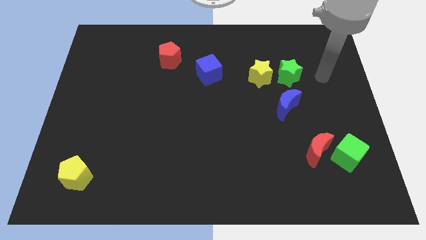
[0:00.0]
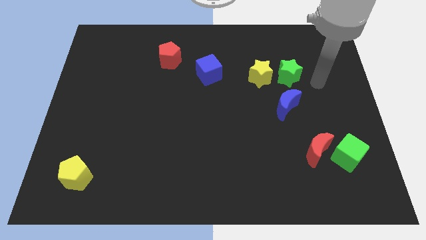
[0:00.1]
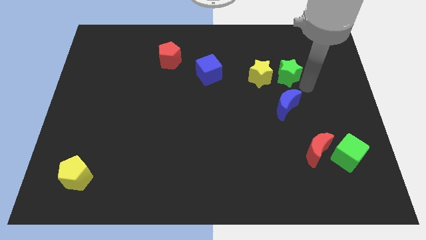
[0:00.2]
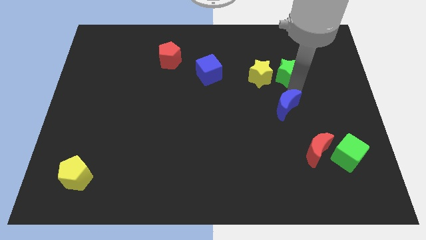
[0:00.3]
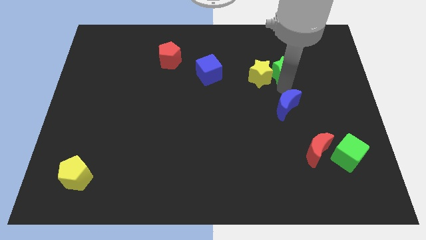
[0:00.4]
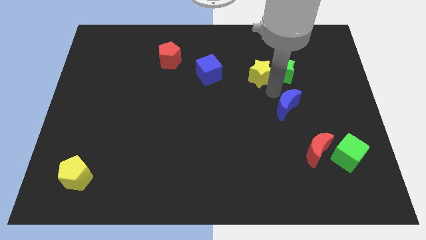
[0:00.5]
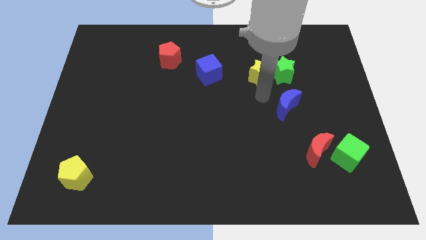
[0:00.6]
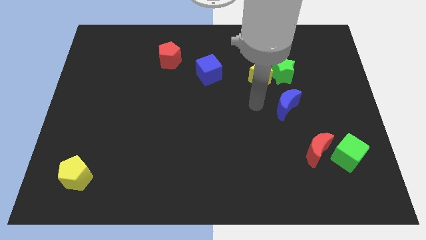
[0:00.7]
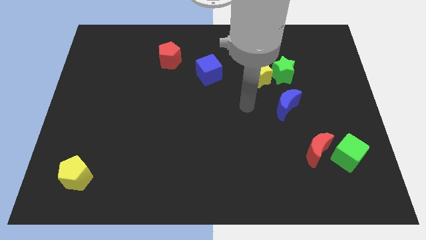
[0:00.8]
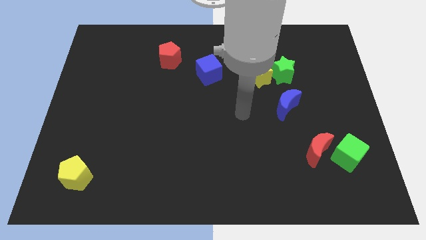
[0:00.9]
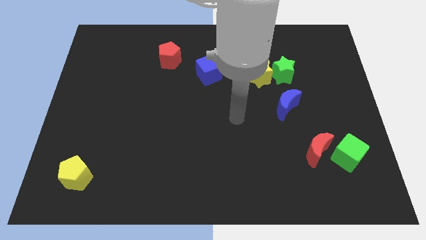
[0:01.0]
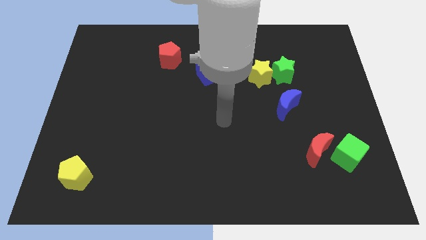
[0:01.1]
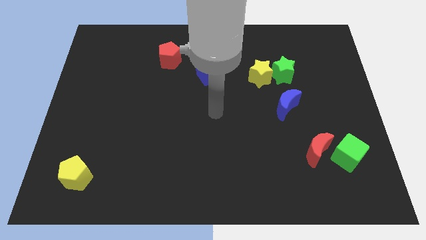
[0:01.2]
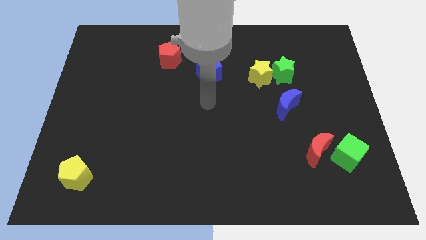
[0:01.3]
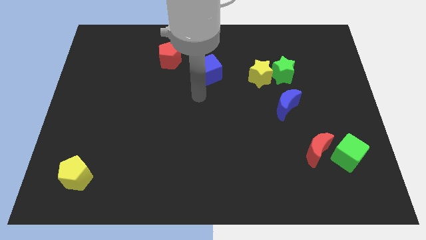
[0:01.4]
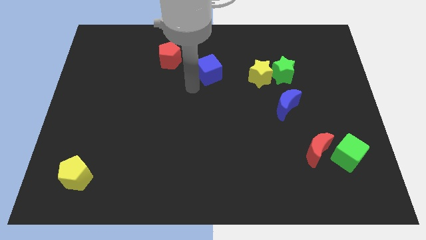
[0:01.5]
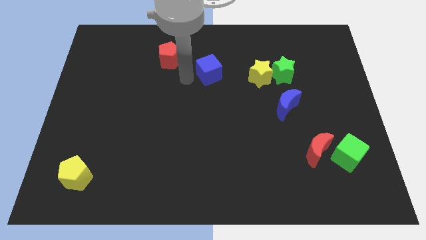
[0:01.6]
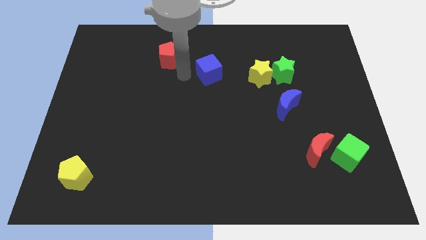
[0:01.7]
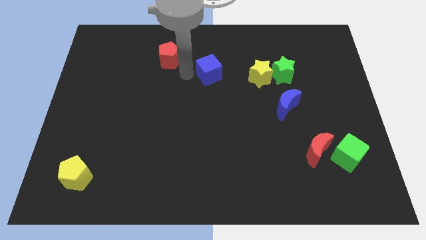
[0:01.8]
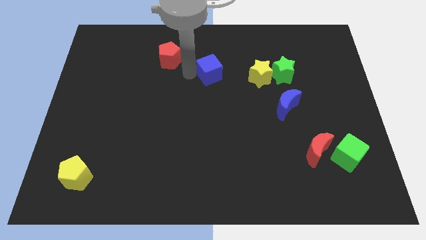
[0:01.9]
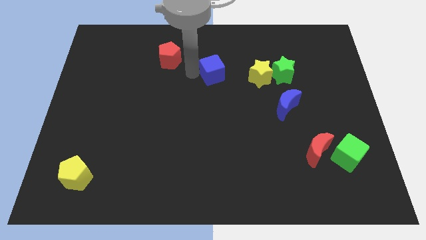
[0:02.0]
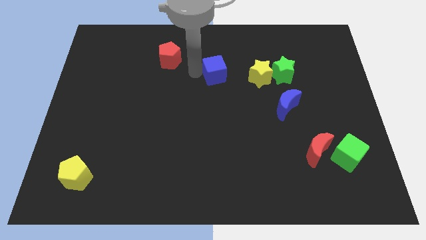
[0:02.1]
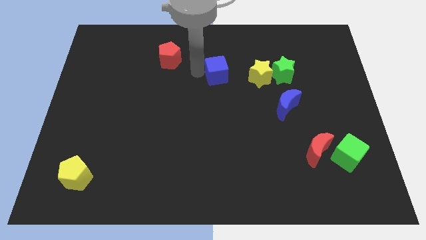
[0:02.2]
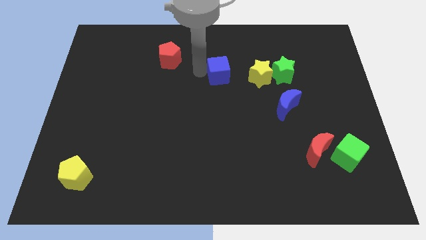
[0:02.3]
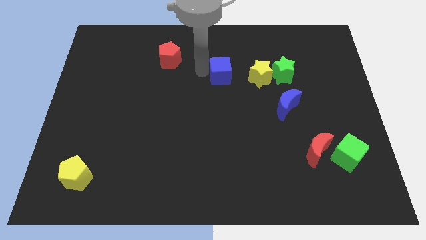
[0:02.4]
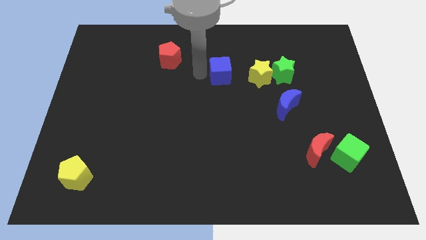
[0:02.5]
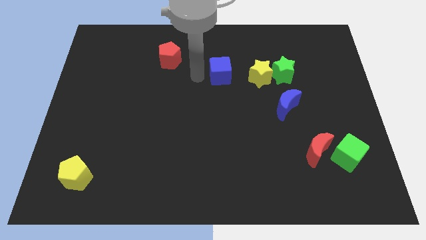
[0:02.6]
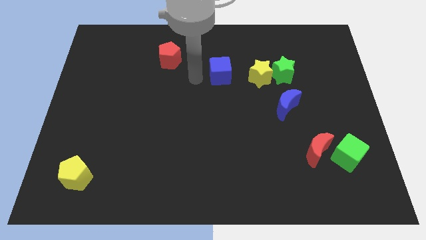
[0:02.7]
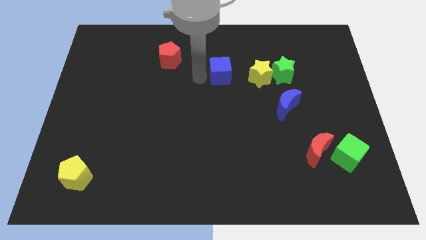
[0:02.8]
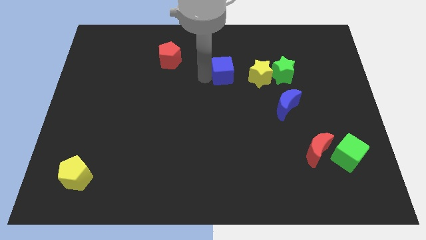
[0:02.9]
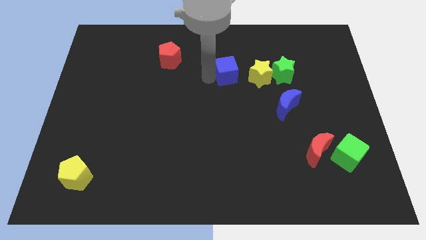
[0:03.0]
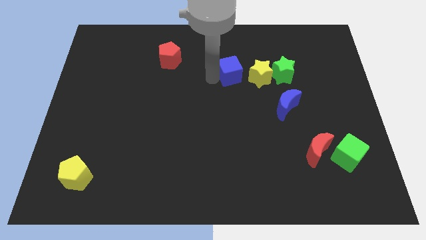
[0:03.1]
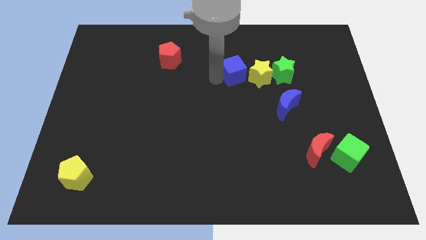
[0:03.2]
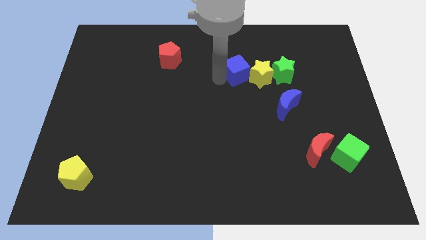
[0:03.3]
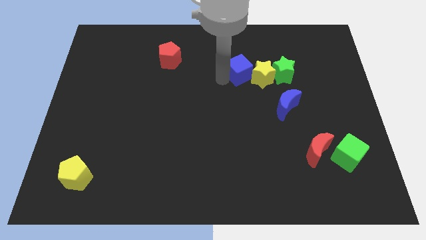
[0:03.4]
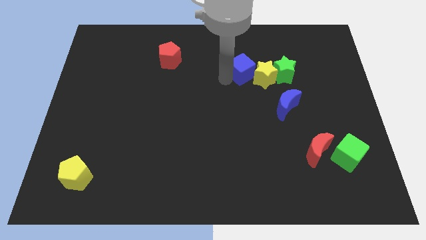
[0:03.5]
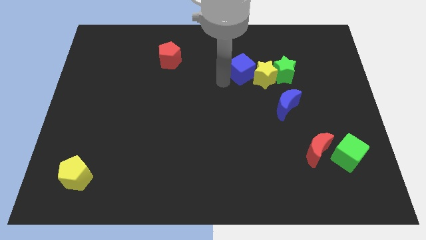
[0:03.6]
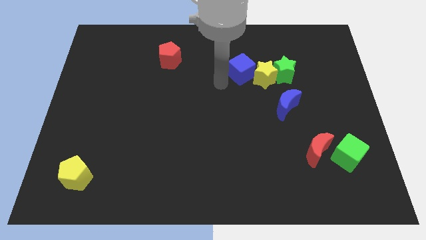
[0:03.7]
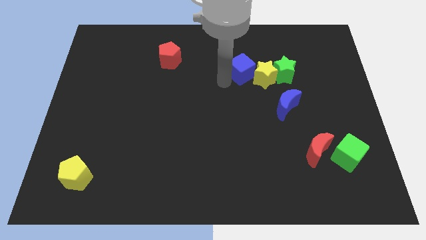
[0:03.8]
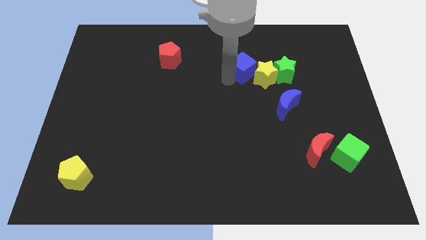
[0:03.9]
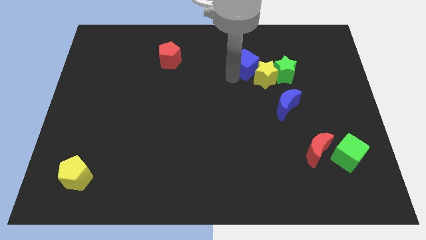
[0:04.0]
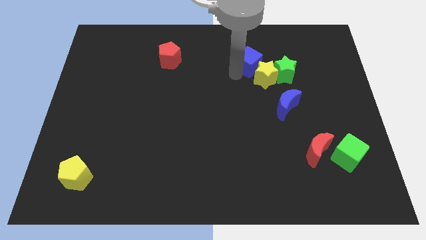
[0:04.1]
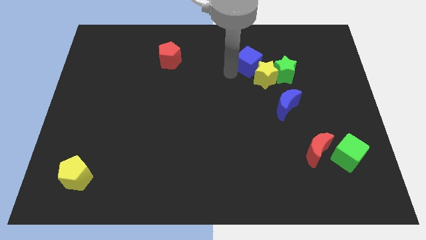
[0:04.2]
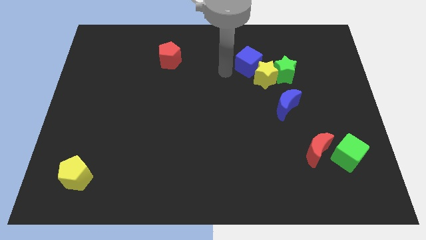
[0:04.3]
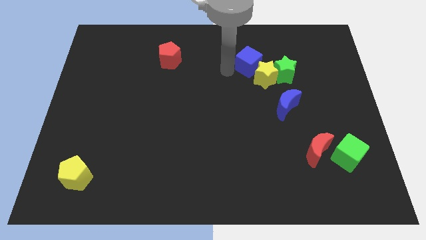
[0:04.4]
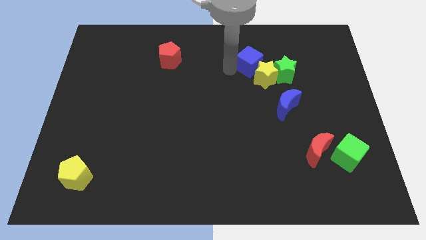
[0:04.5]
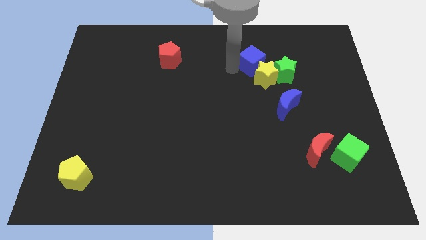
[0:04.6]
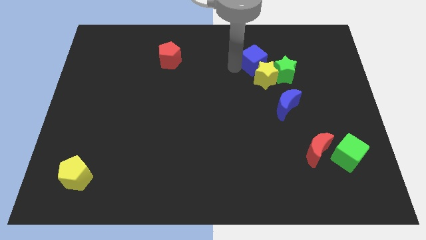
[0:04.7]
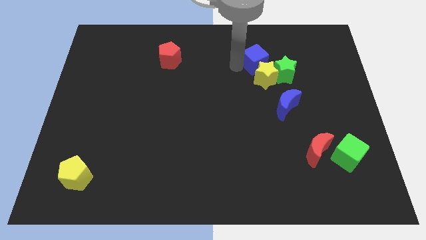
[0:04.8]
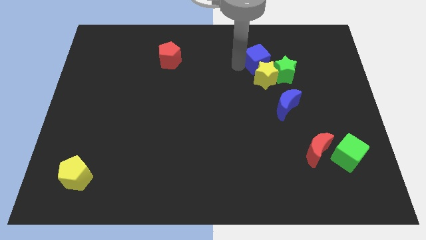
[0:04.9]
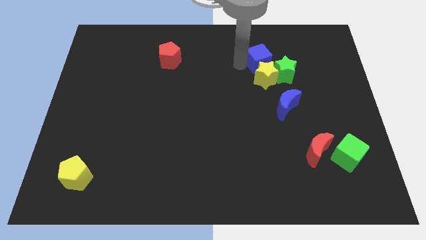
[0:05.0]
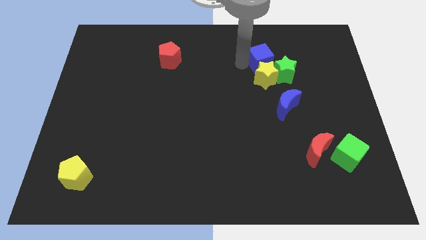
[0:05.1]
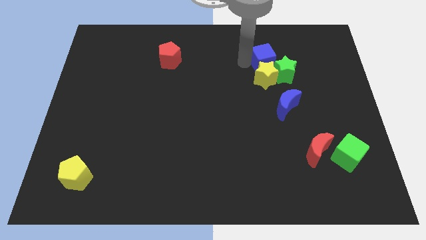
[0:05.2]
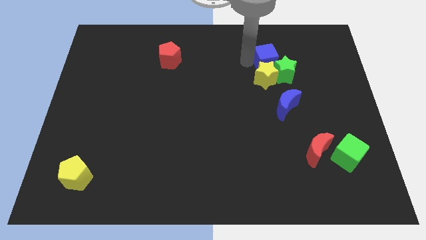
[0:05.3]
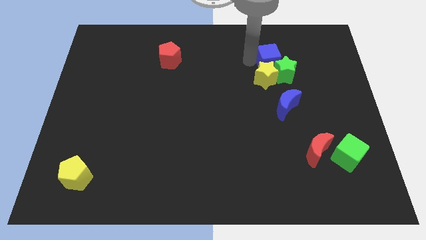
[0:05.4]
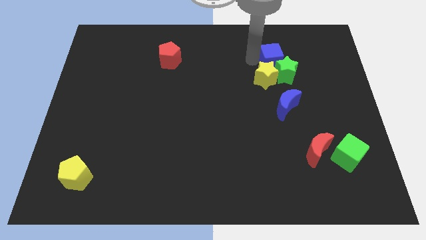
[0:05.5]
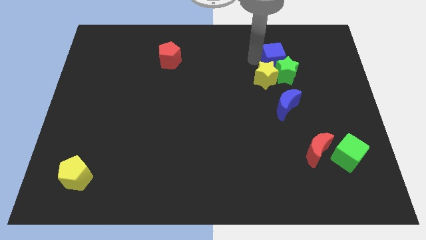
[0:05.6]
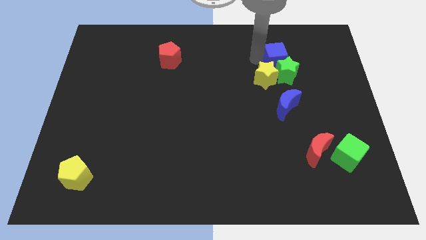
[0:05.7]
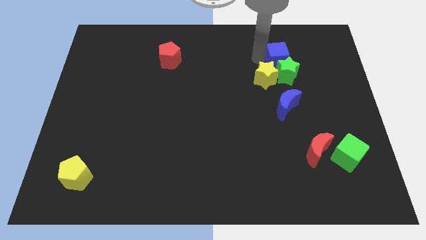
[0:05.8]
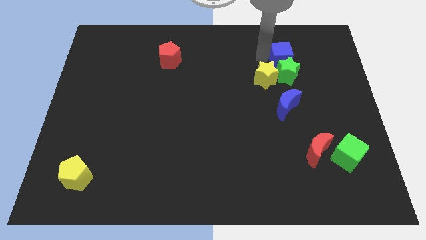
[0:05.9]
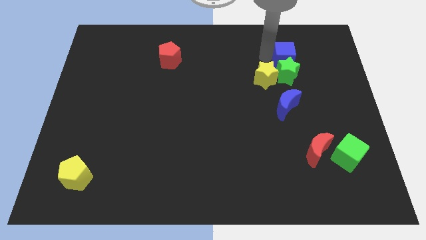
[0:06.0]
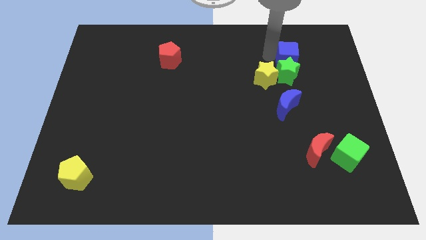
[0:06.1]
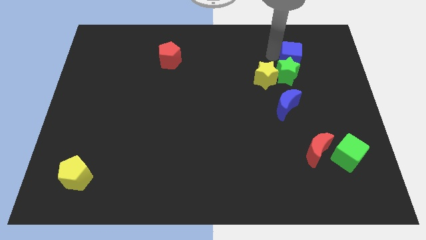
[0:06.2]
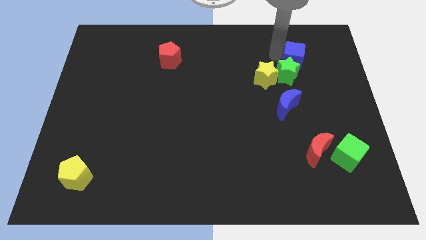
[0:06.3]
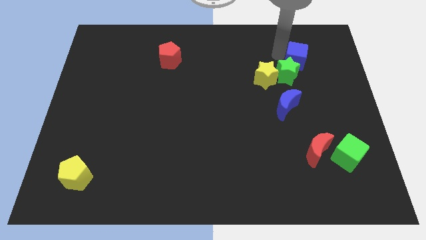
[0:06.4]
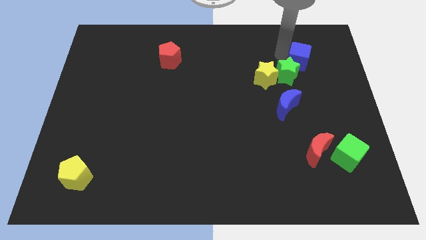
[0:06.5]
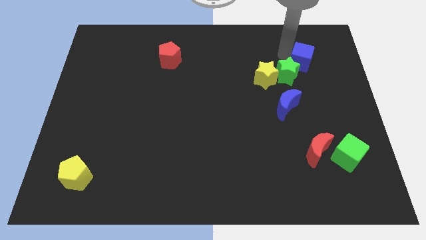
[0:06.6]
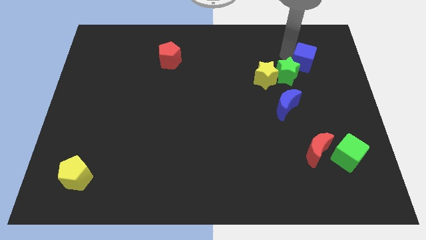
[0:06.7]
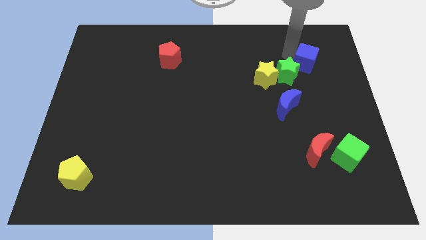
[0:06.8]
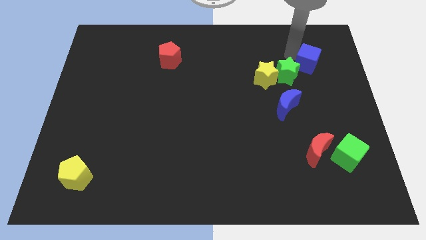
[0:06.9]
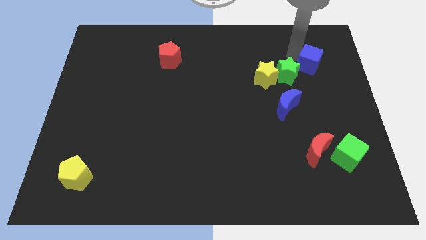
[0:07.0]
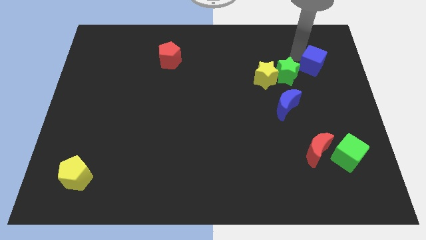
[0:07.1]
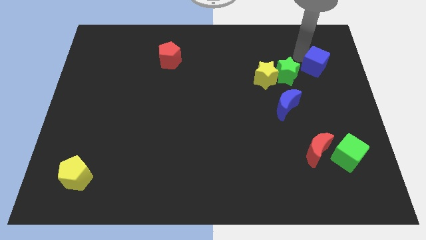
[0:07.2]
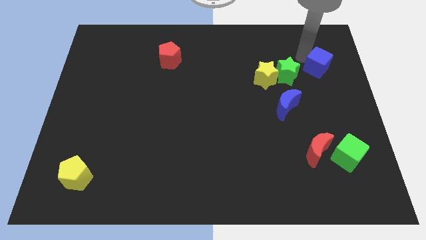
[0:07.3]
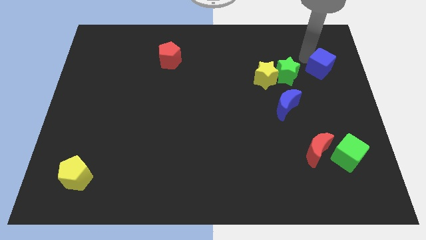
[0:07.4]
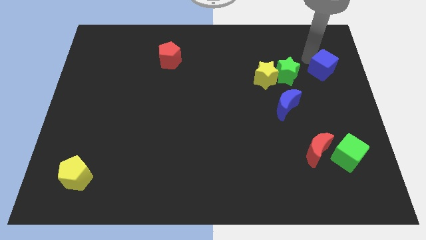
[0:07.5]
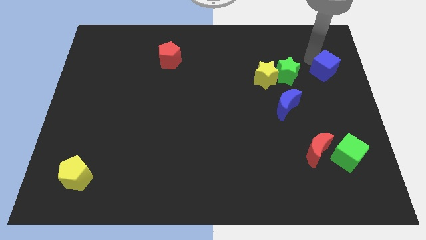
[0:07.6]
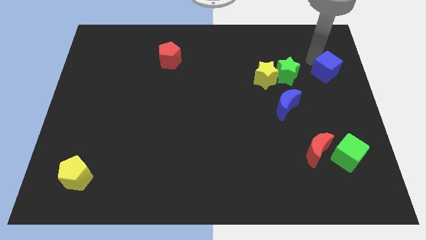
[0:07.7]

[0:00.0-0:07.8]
put the blue cube to the right side of the board
